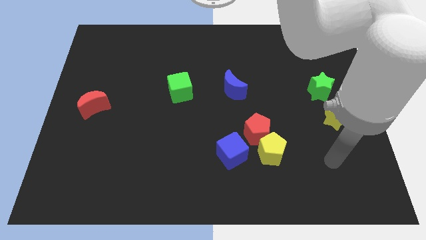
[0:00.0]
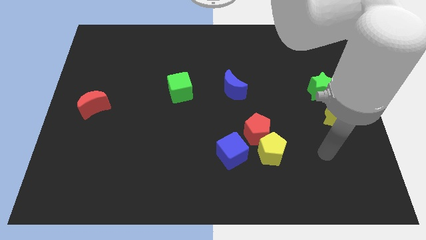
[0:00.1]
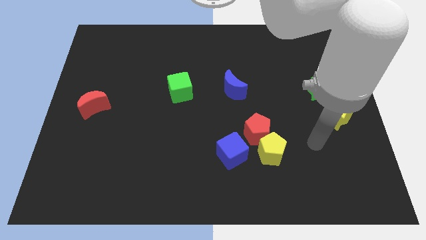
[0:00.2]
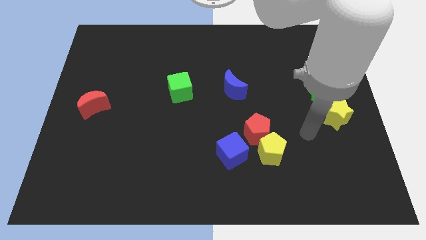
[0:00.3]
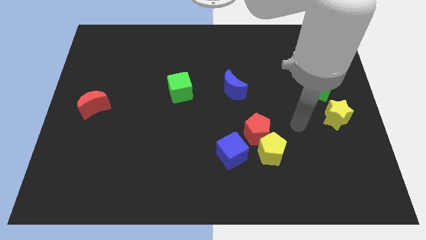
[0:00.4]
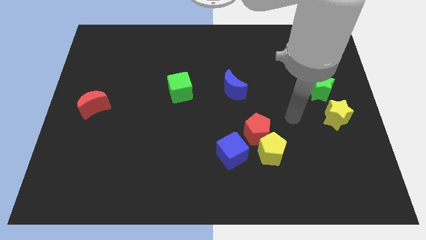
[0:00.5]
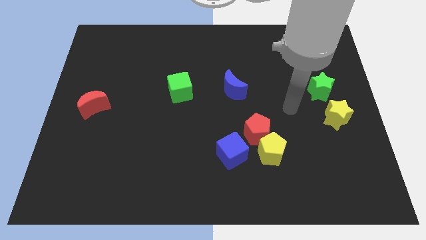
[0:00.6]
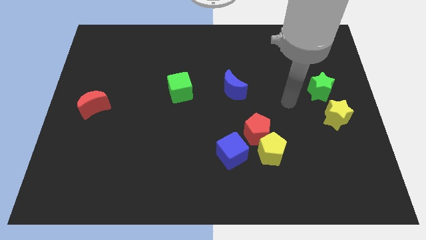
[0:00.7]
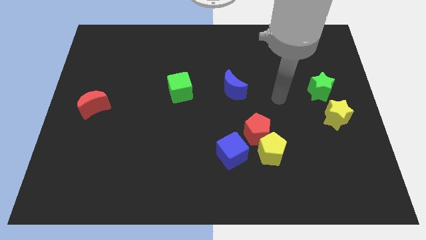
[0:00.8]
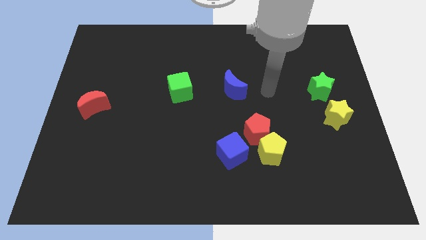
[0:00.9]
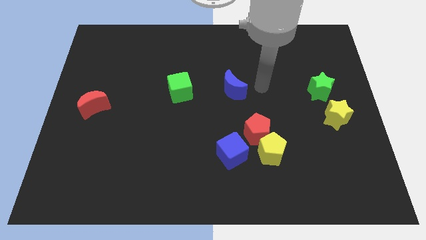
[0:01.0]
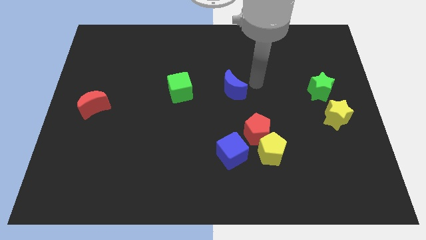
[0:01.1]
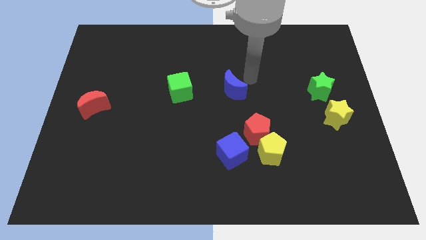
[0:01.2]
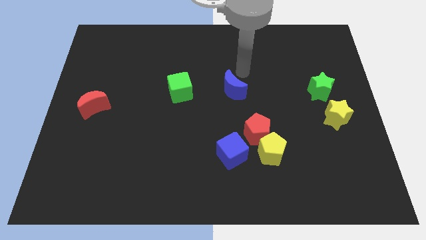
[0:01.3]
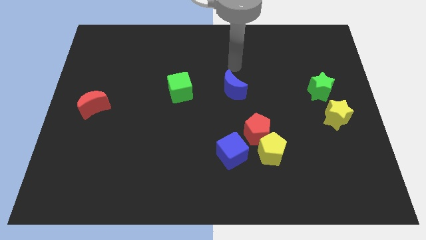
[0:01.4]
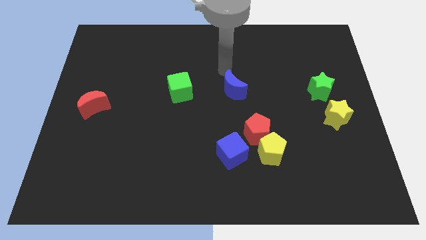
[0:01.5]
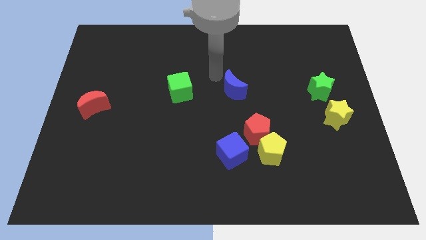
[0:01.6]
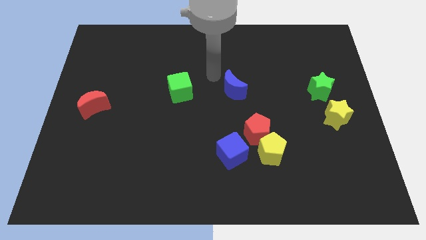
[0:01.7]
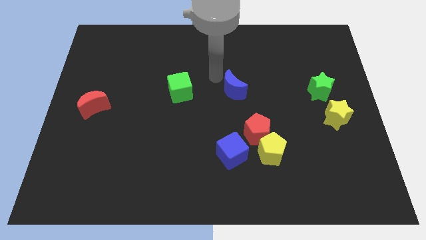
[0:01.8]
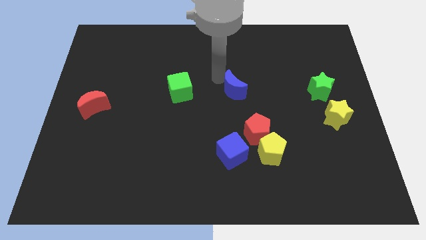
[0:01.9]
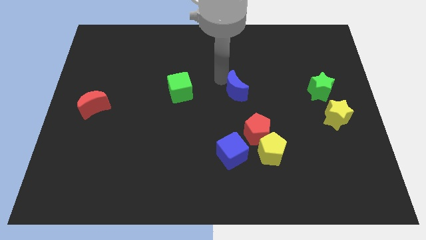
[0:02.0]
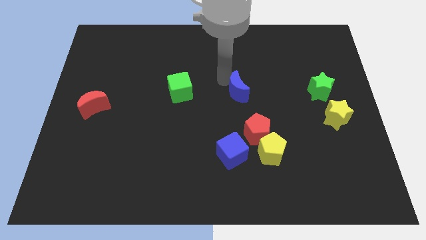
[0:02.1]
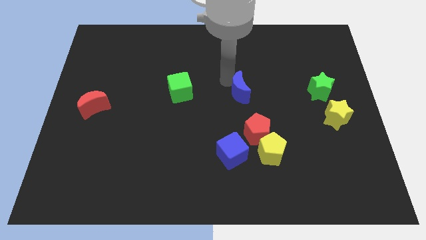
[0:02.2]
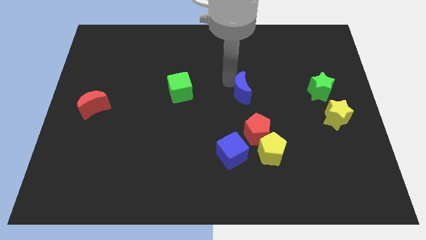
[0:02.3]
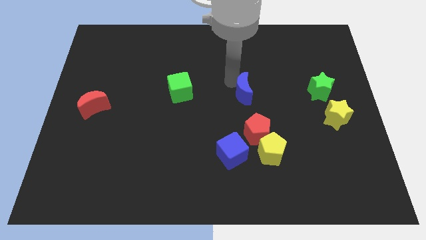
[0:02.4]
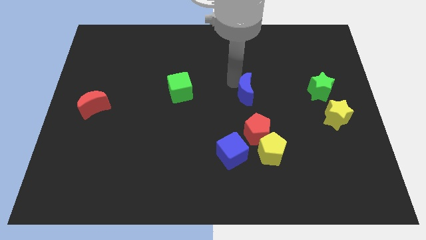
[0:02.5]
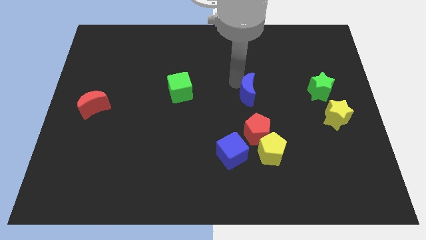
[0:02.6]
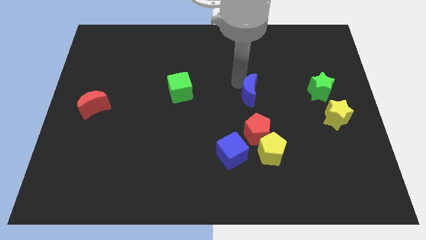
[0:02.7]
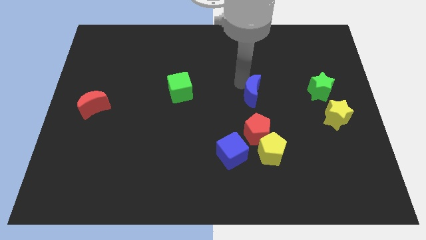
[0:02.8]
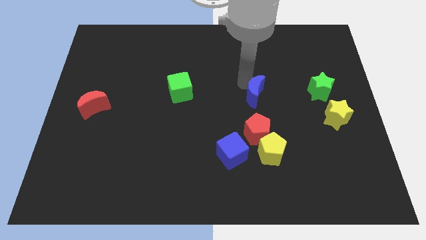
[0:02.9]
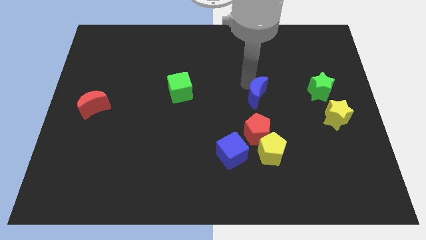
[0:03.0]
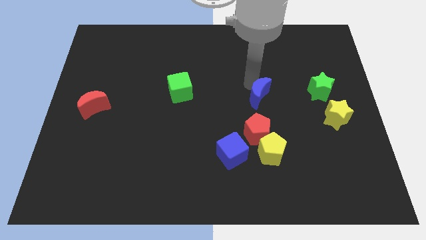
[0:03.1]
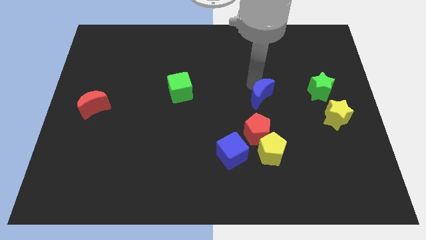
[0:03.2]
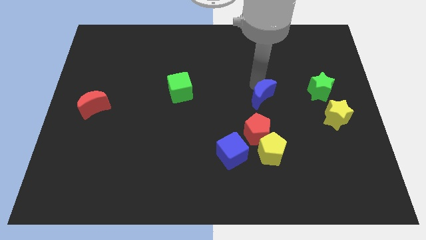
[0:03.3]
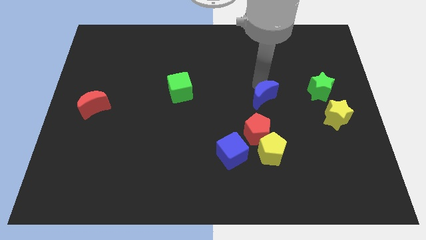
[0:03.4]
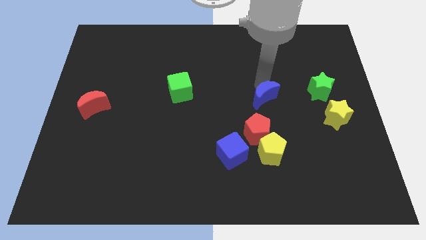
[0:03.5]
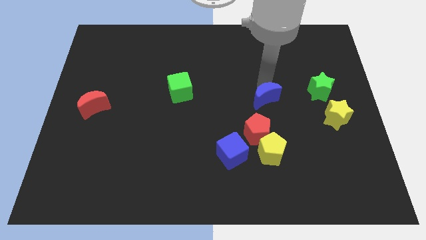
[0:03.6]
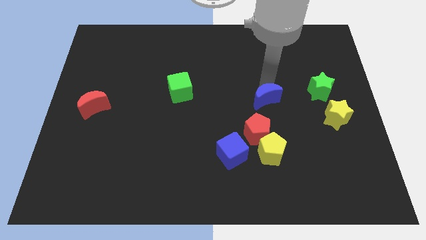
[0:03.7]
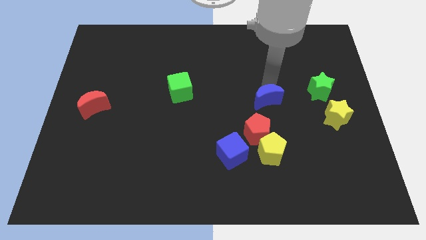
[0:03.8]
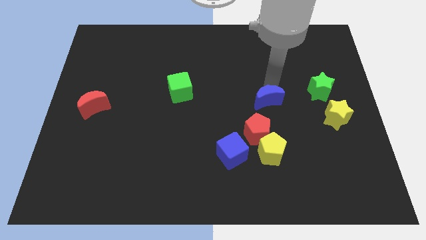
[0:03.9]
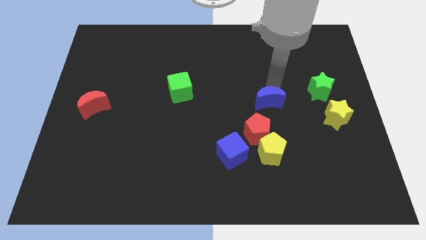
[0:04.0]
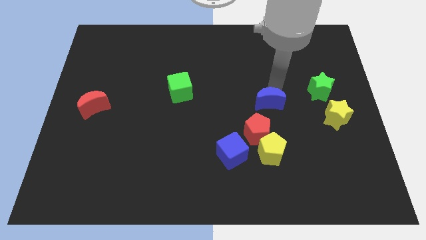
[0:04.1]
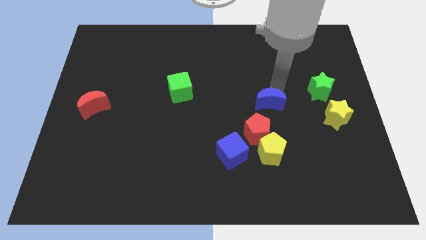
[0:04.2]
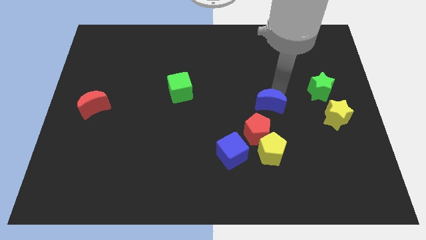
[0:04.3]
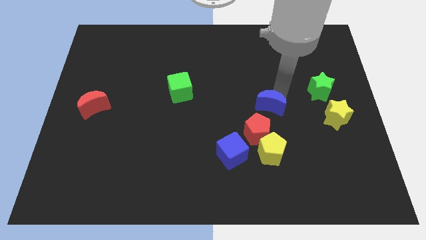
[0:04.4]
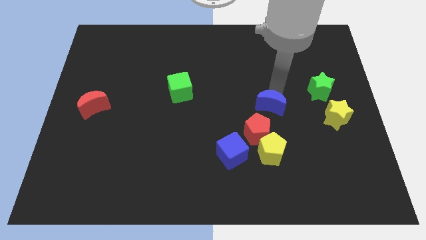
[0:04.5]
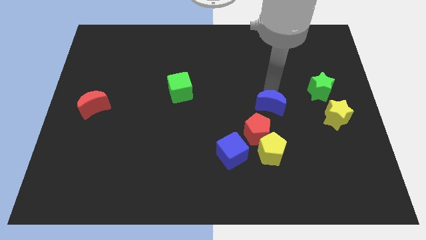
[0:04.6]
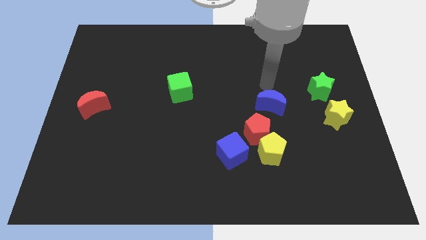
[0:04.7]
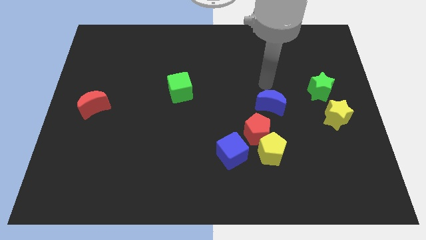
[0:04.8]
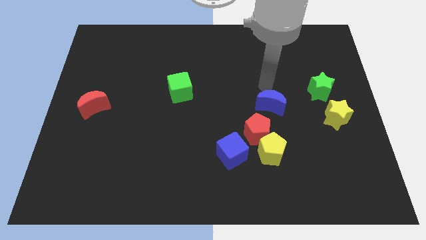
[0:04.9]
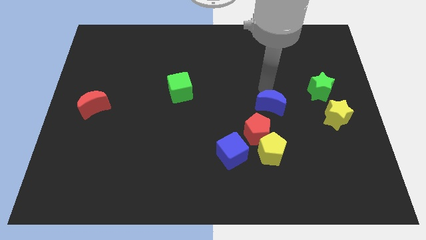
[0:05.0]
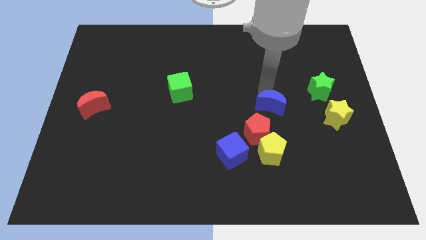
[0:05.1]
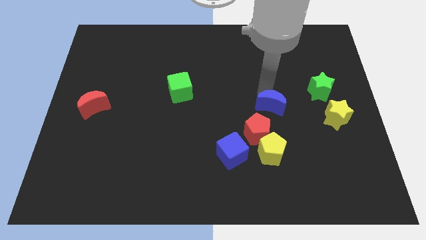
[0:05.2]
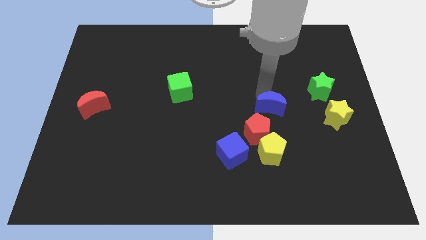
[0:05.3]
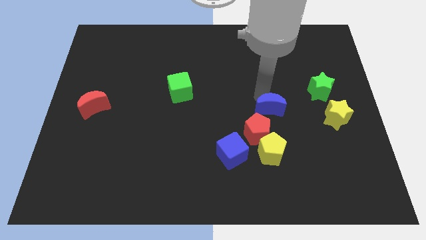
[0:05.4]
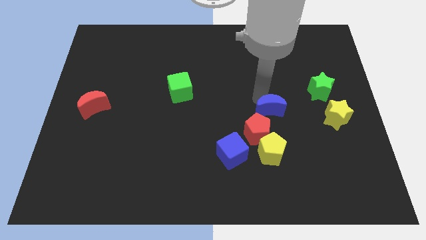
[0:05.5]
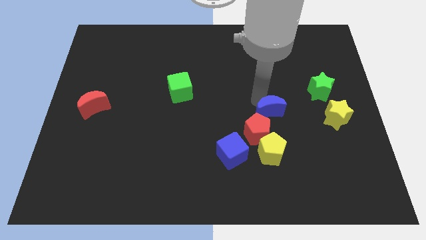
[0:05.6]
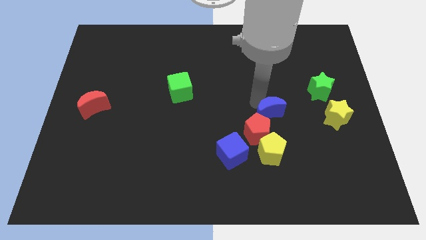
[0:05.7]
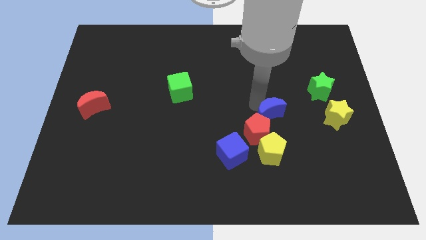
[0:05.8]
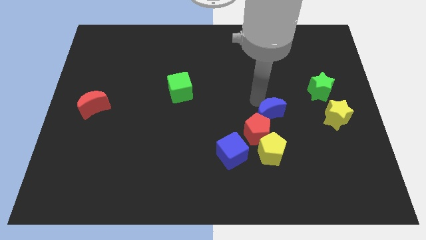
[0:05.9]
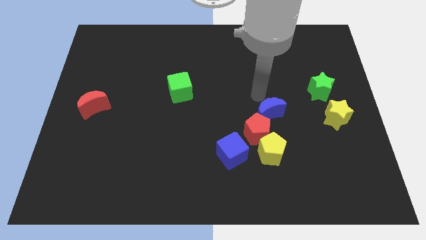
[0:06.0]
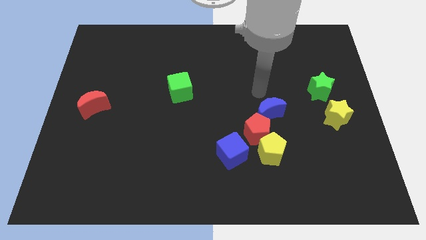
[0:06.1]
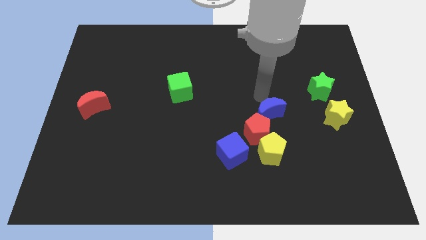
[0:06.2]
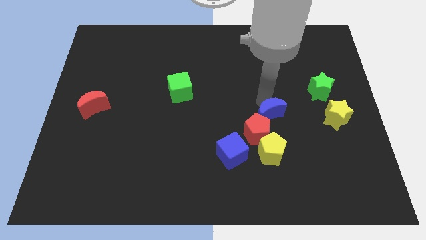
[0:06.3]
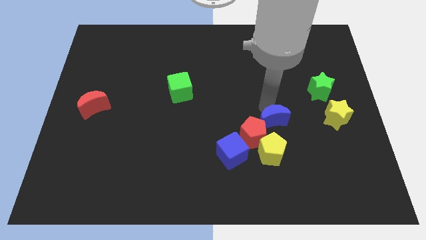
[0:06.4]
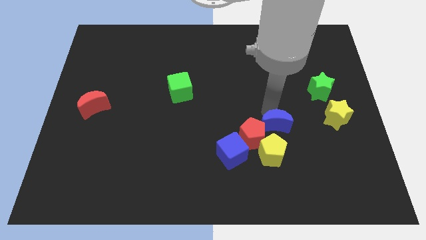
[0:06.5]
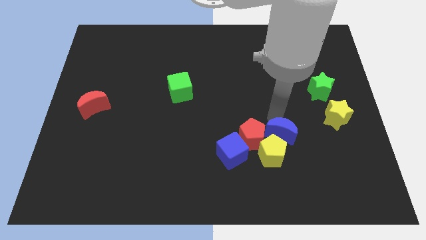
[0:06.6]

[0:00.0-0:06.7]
slide the blue moon next to the yellow pentagon
